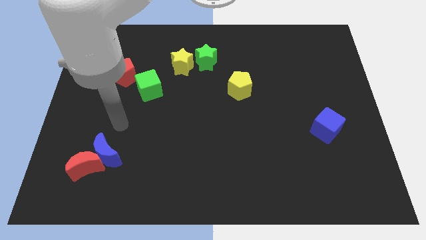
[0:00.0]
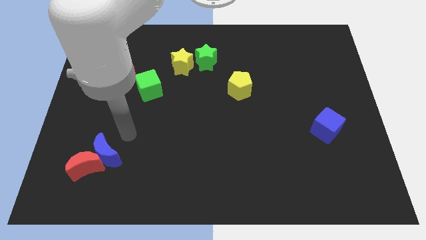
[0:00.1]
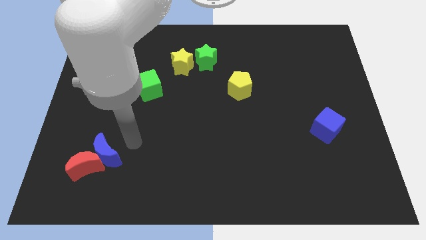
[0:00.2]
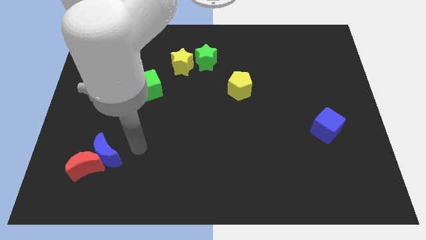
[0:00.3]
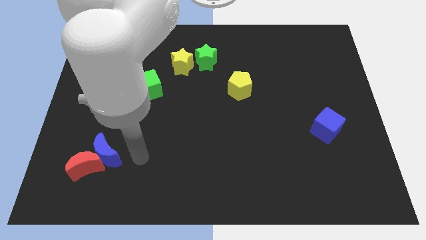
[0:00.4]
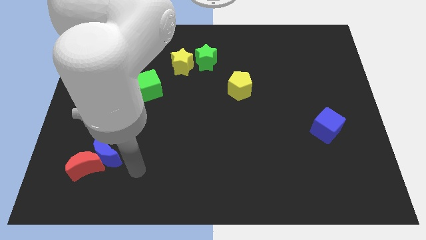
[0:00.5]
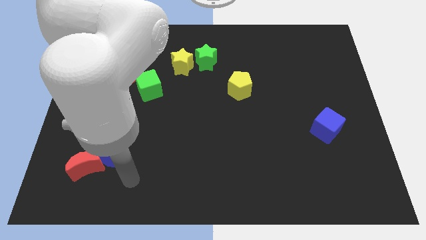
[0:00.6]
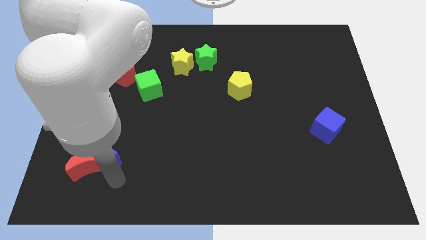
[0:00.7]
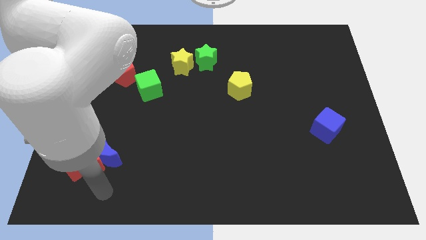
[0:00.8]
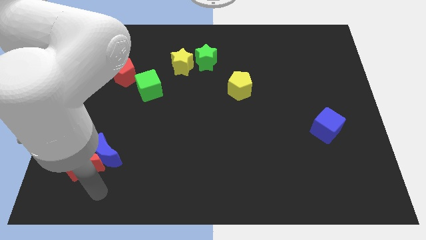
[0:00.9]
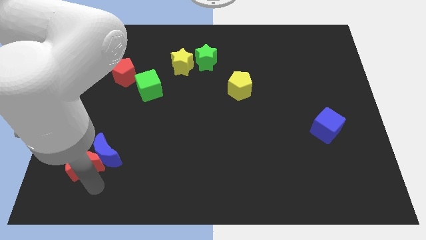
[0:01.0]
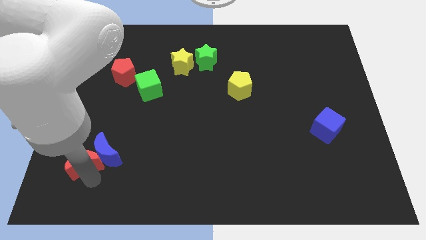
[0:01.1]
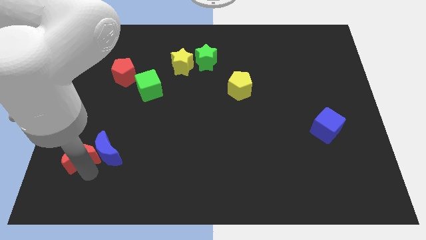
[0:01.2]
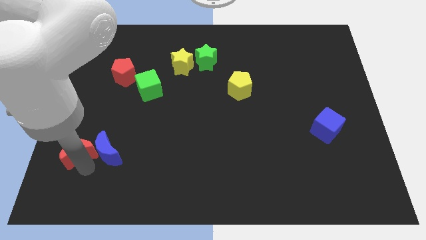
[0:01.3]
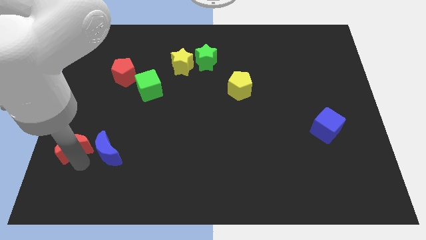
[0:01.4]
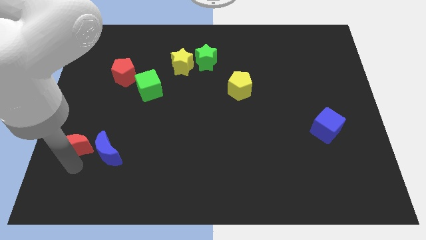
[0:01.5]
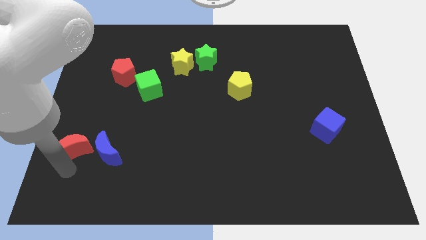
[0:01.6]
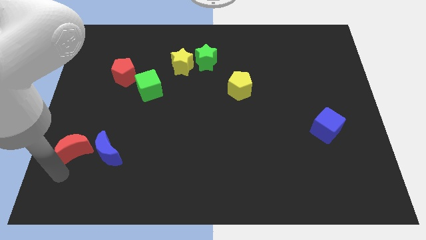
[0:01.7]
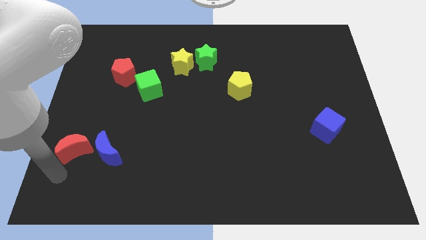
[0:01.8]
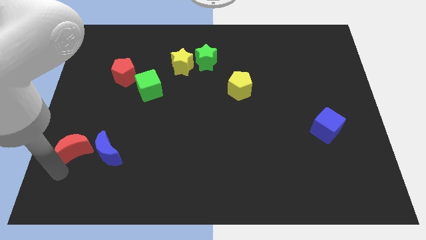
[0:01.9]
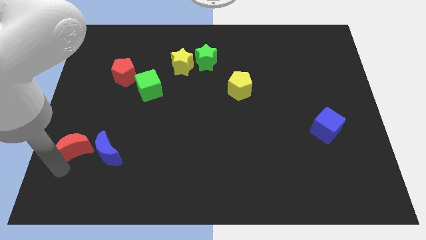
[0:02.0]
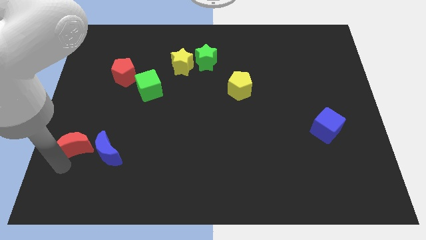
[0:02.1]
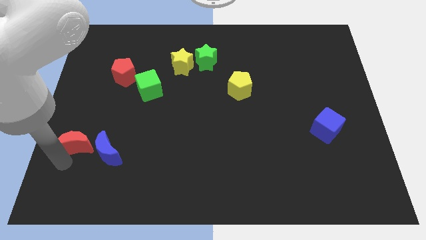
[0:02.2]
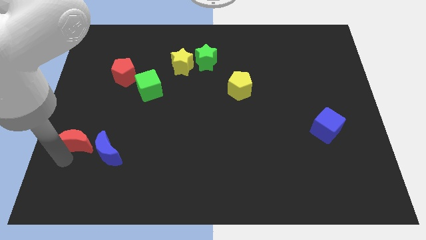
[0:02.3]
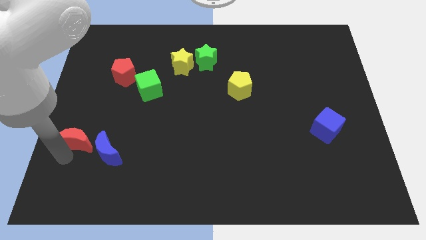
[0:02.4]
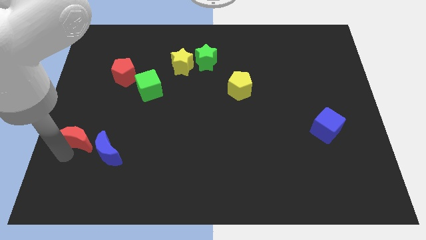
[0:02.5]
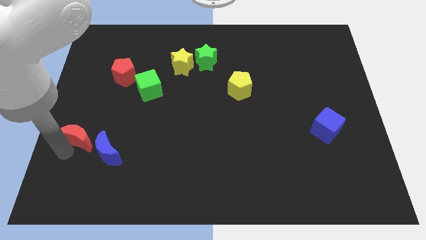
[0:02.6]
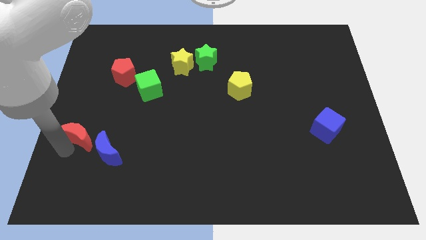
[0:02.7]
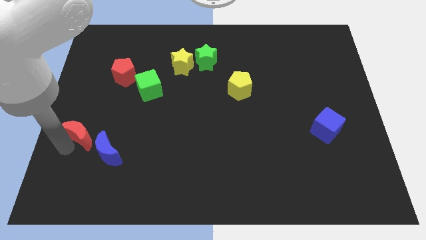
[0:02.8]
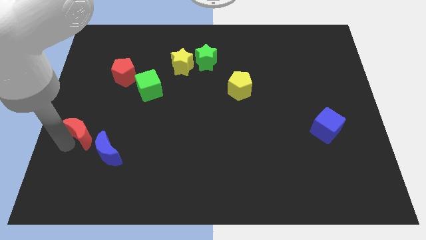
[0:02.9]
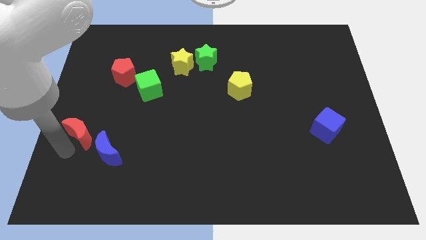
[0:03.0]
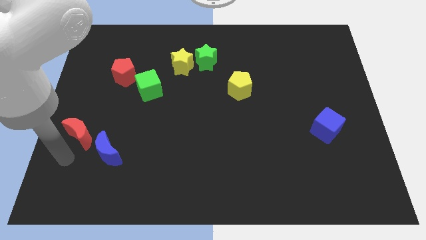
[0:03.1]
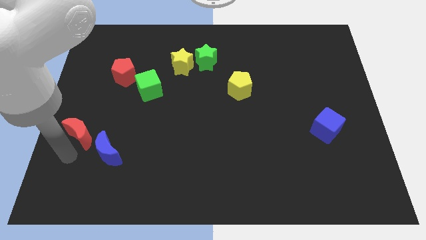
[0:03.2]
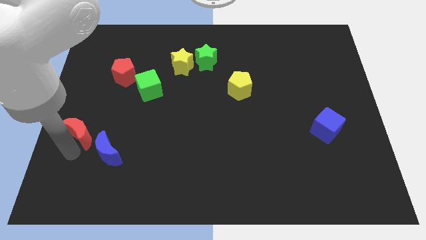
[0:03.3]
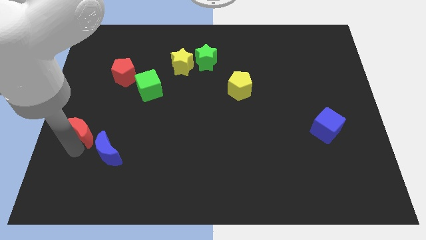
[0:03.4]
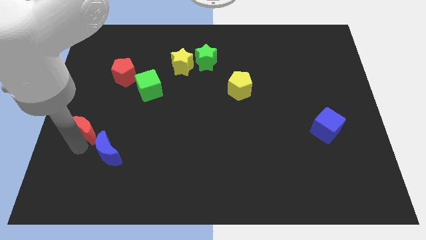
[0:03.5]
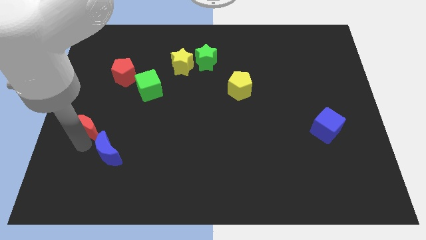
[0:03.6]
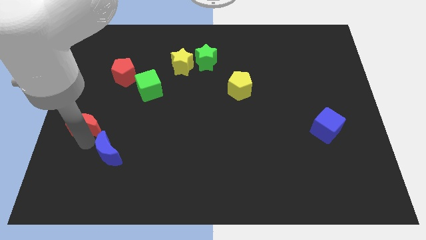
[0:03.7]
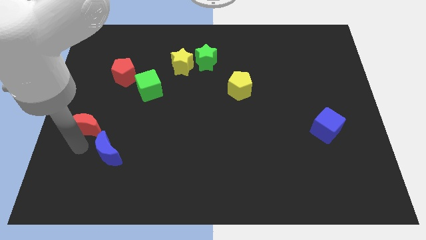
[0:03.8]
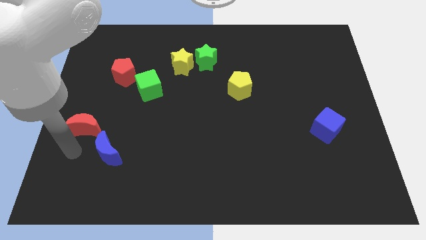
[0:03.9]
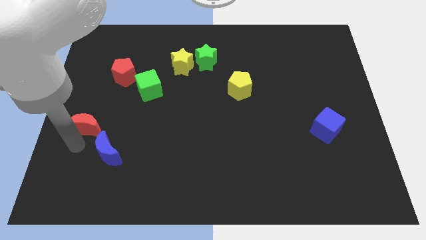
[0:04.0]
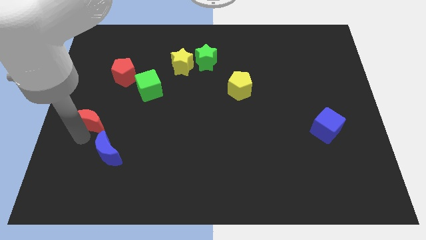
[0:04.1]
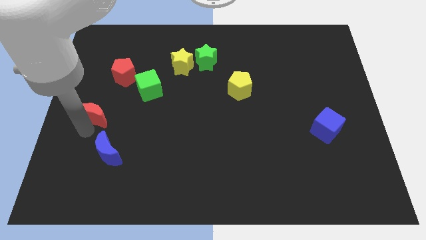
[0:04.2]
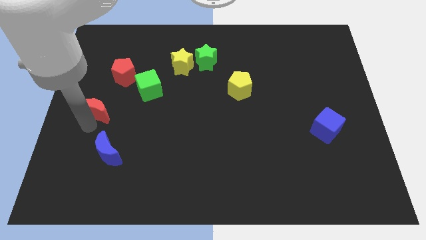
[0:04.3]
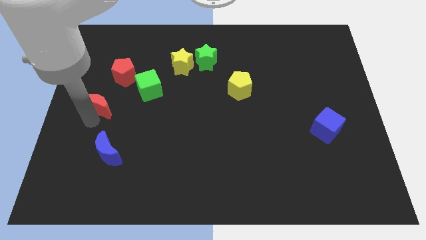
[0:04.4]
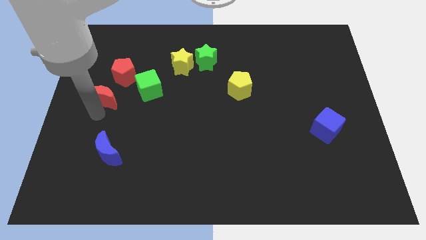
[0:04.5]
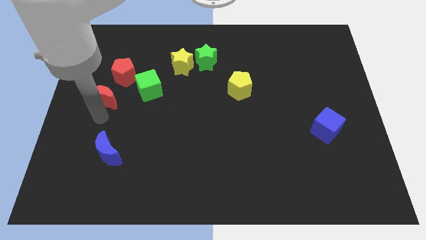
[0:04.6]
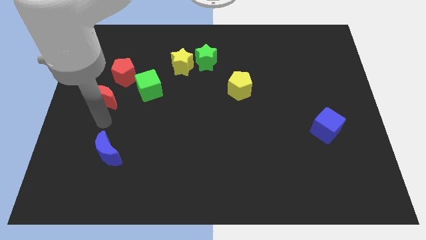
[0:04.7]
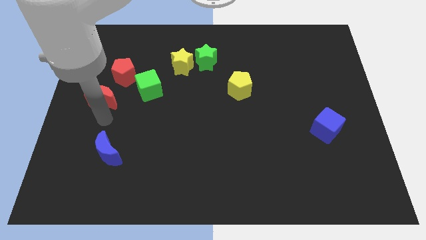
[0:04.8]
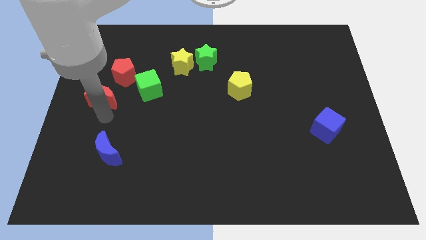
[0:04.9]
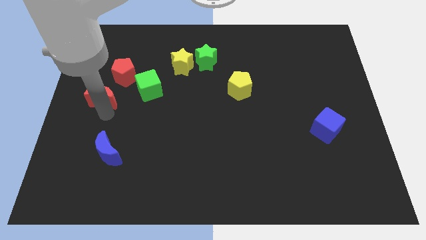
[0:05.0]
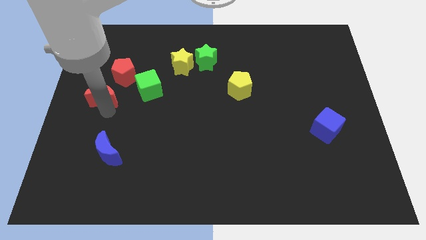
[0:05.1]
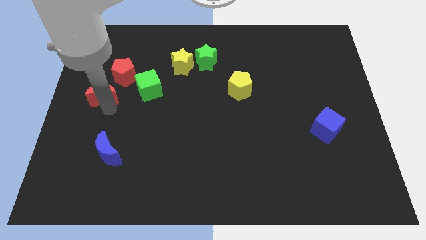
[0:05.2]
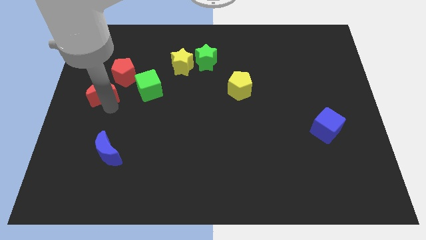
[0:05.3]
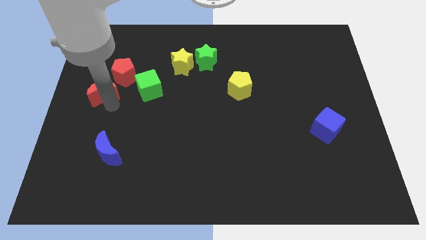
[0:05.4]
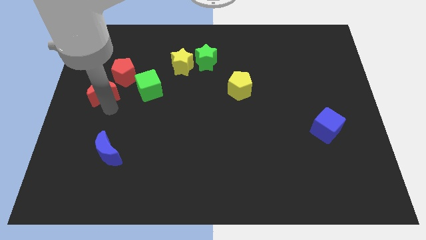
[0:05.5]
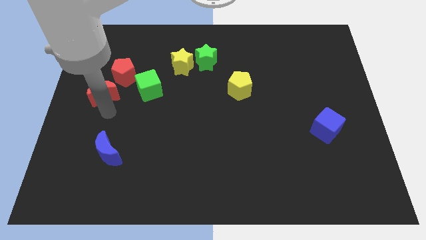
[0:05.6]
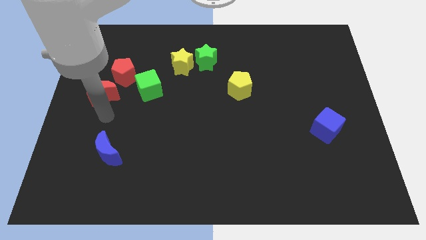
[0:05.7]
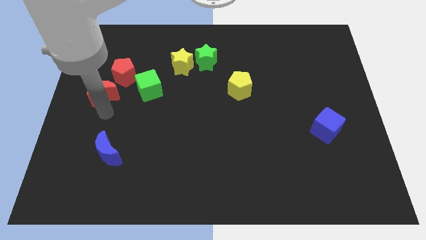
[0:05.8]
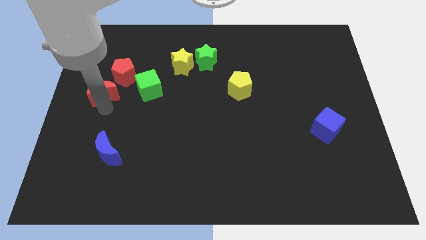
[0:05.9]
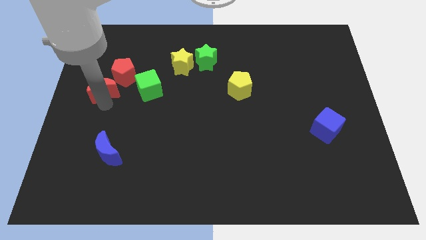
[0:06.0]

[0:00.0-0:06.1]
move the red moon upwards

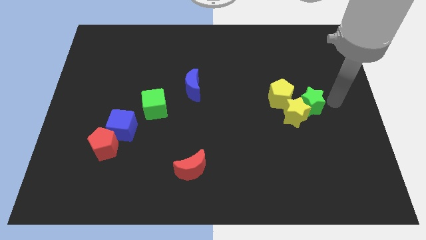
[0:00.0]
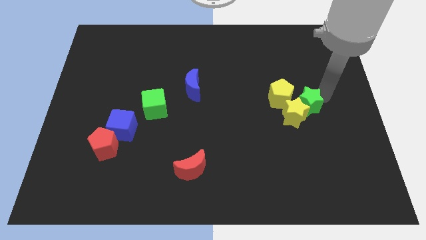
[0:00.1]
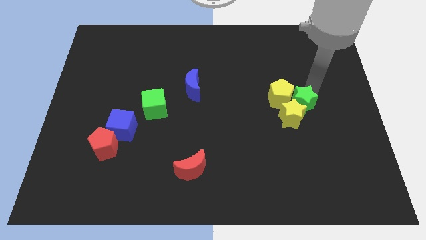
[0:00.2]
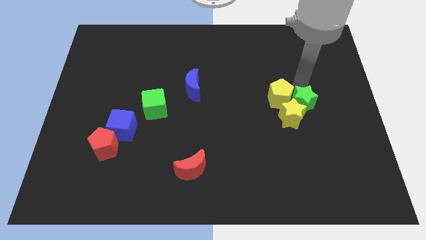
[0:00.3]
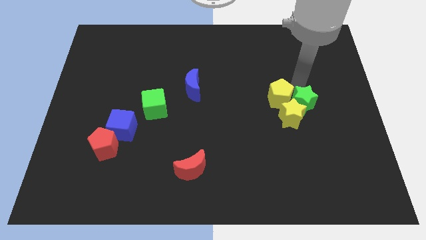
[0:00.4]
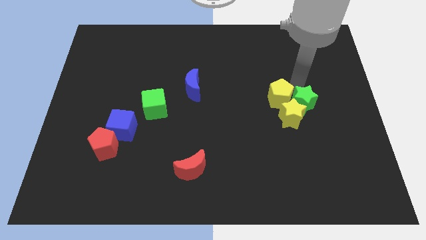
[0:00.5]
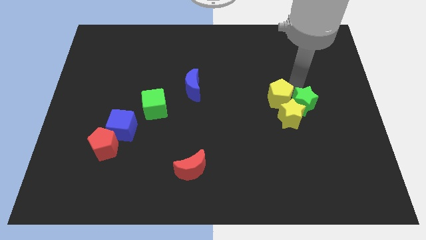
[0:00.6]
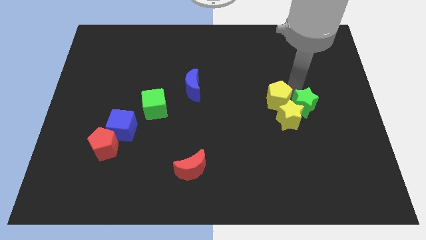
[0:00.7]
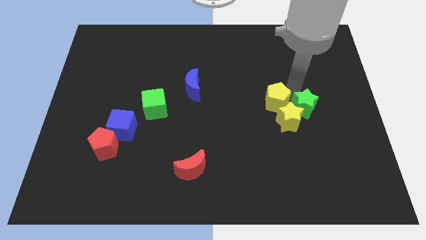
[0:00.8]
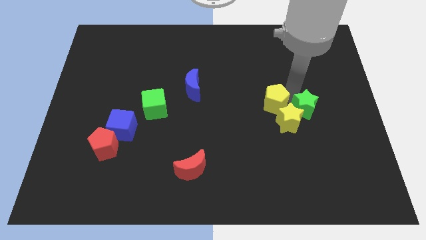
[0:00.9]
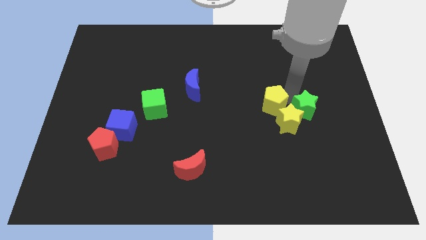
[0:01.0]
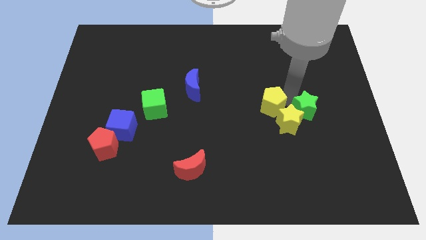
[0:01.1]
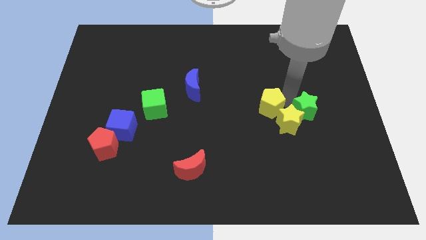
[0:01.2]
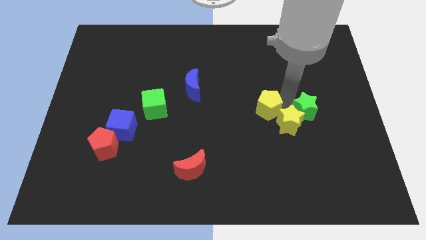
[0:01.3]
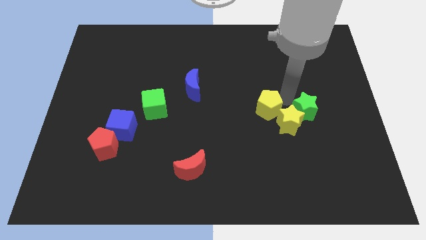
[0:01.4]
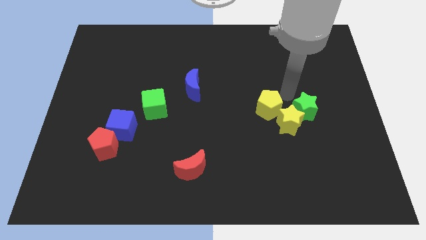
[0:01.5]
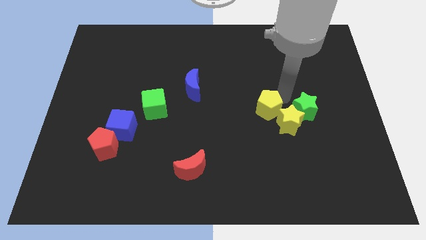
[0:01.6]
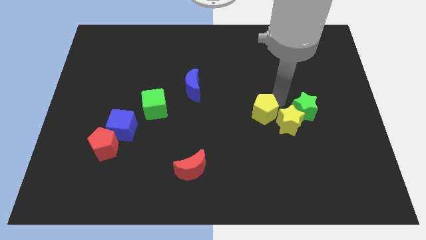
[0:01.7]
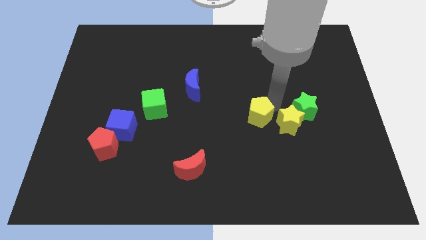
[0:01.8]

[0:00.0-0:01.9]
push the yellow pentagon down and then to the left slightly

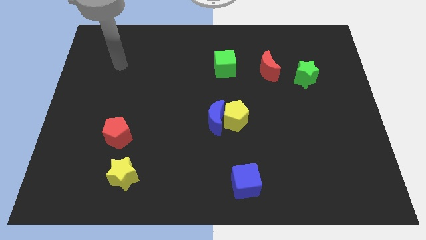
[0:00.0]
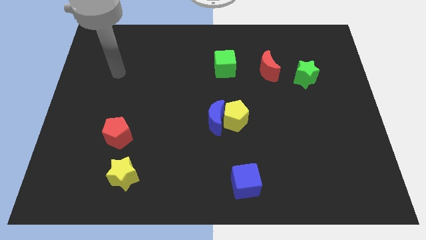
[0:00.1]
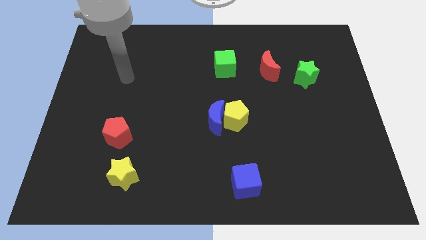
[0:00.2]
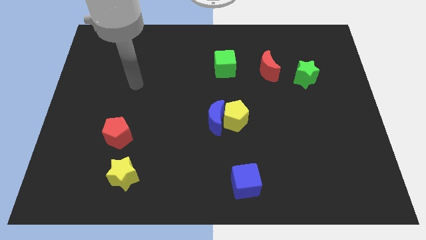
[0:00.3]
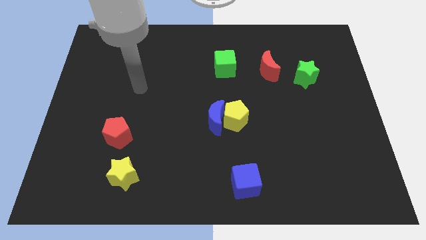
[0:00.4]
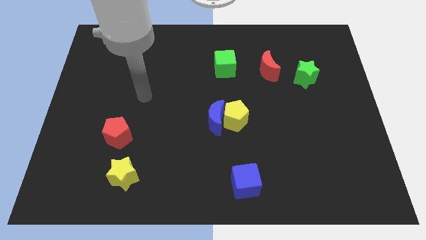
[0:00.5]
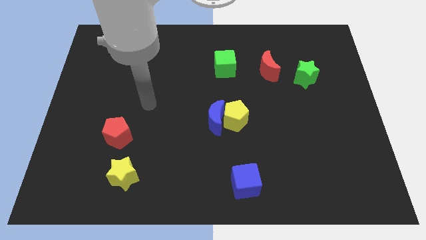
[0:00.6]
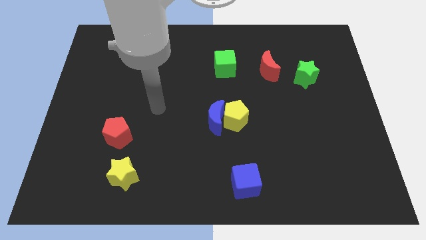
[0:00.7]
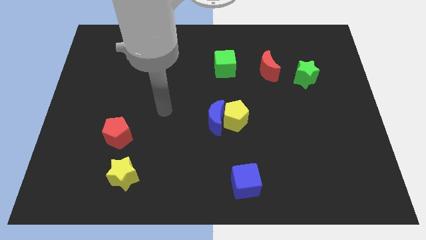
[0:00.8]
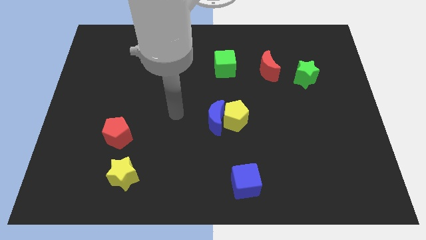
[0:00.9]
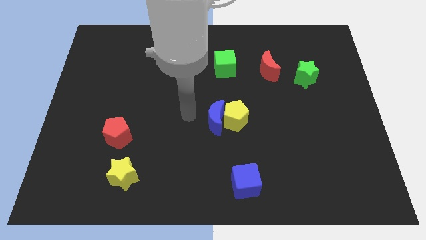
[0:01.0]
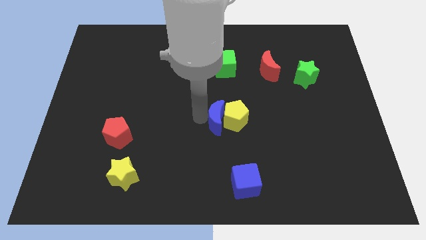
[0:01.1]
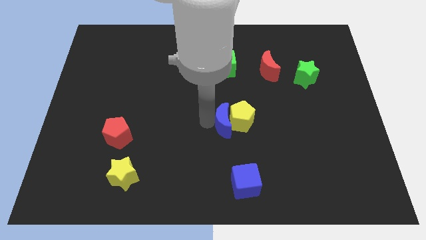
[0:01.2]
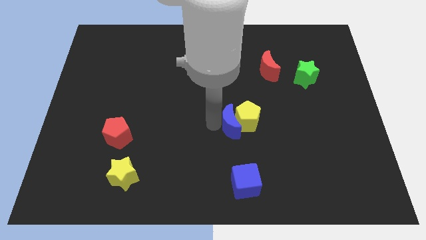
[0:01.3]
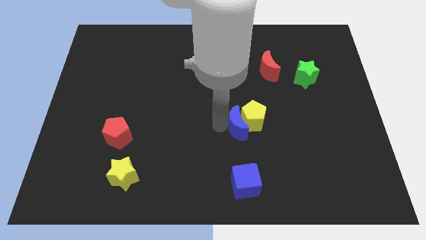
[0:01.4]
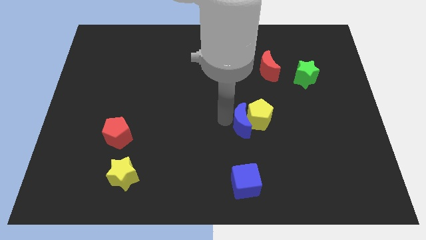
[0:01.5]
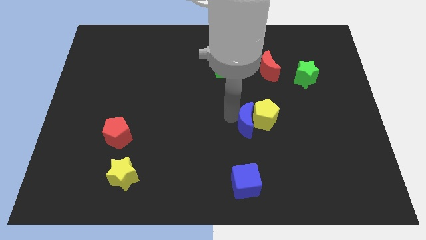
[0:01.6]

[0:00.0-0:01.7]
move the yellow pentagon right a little
